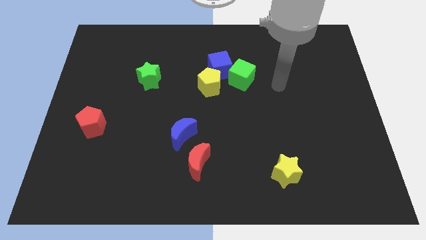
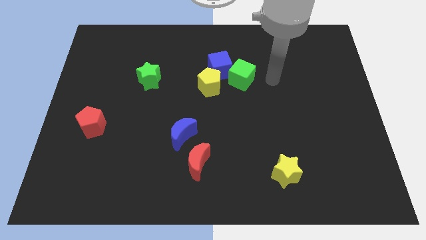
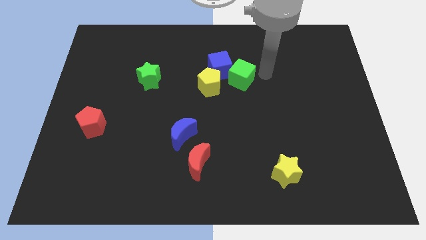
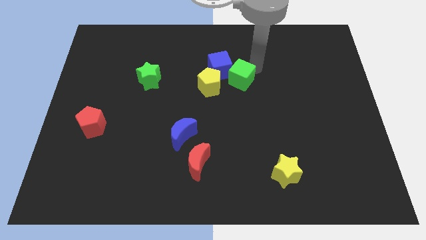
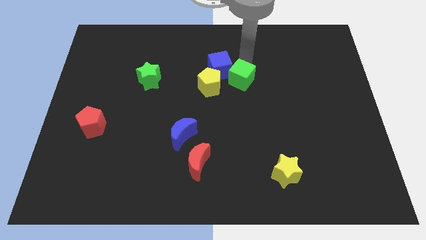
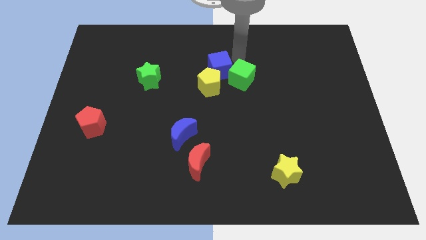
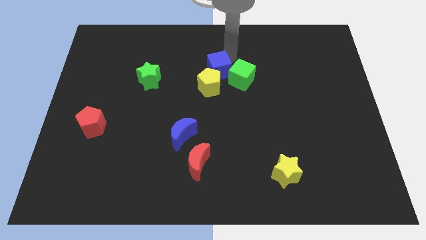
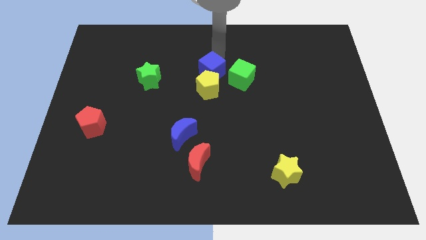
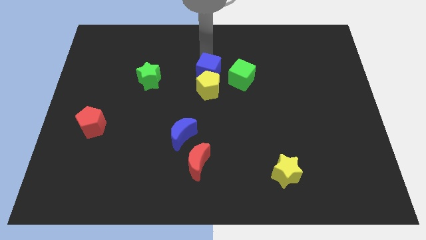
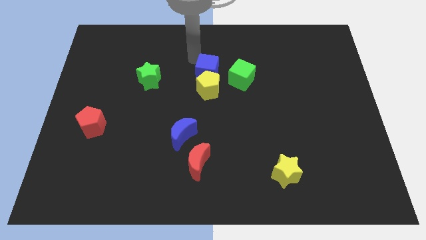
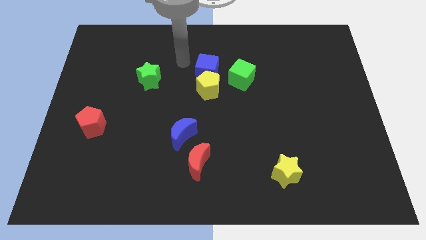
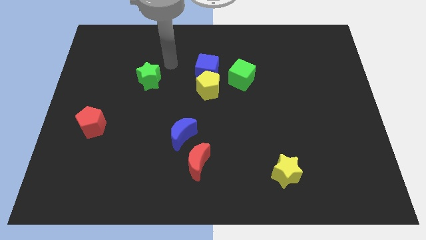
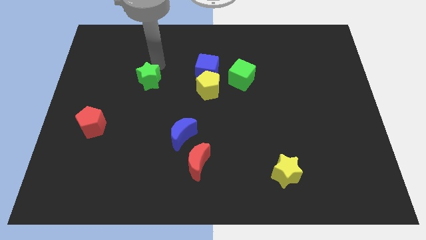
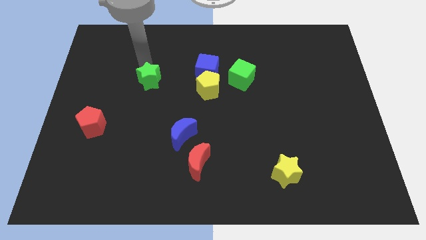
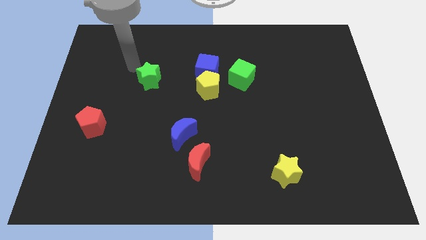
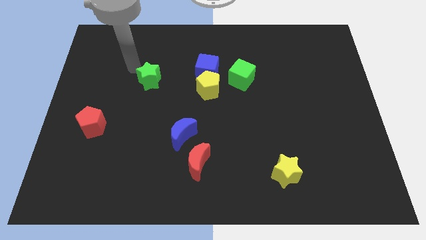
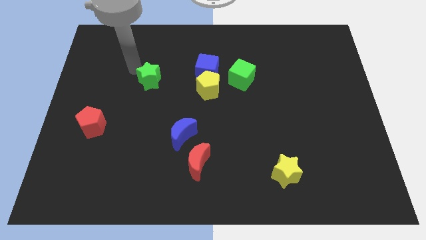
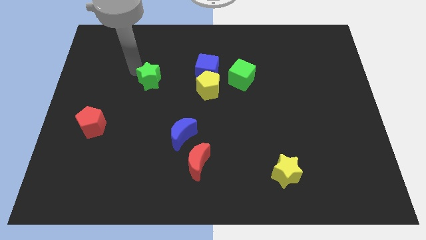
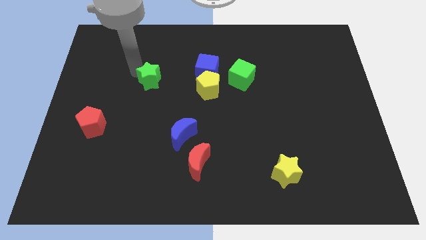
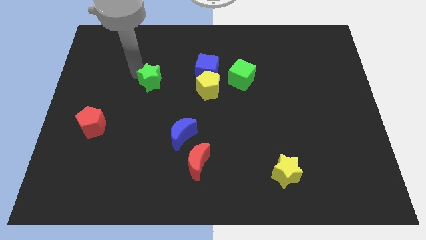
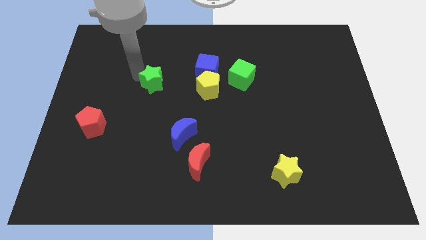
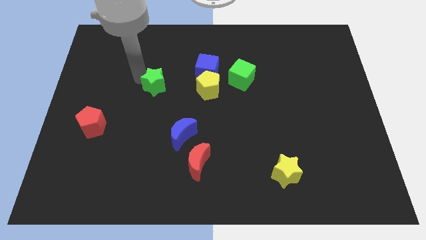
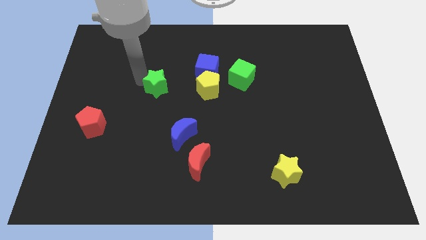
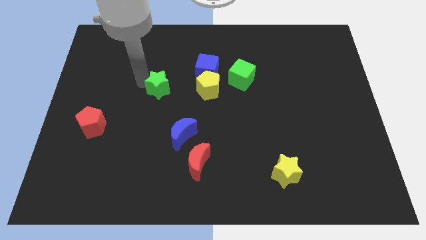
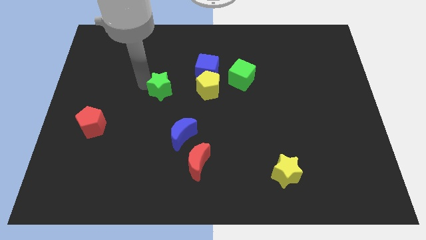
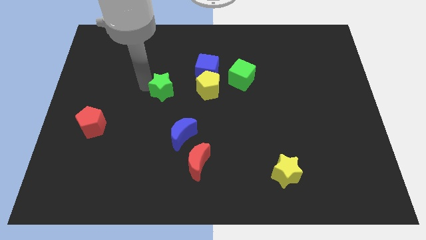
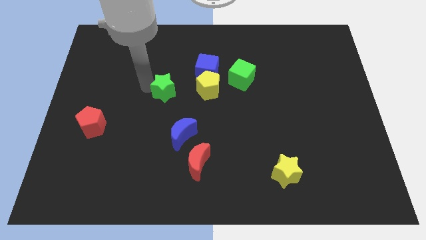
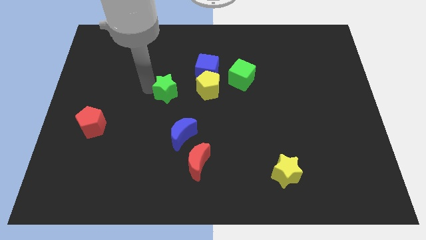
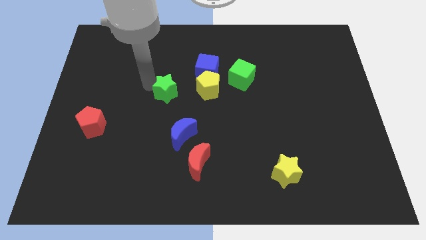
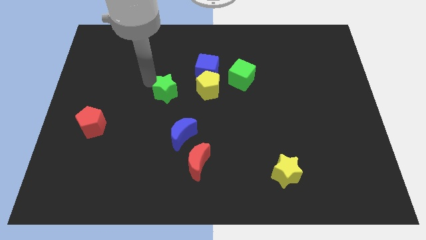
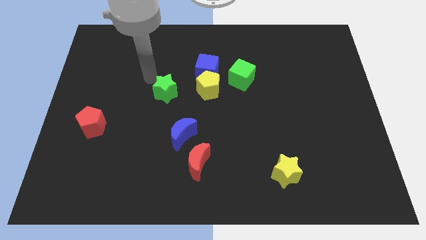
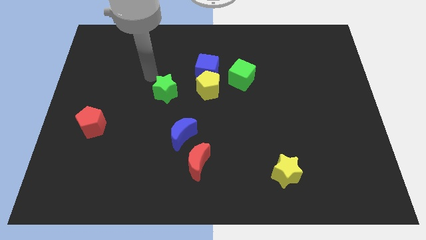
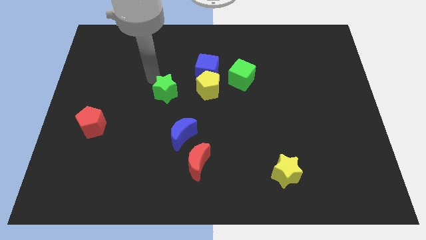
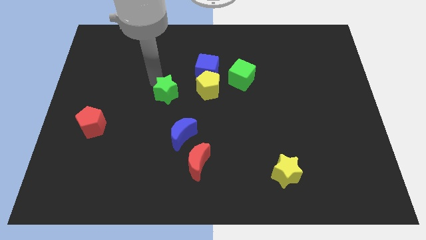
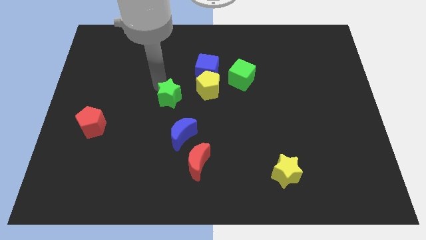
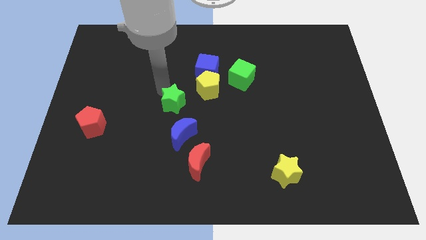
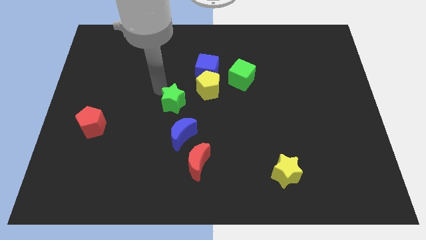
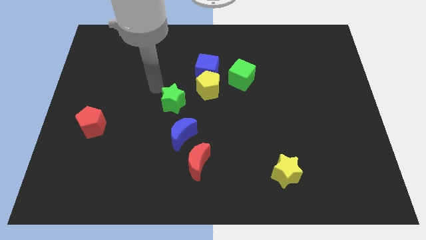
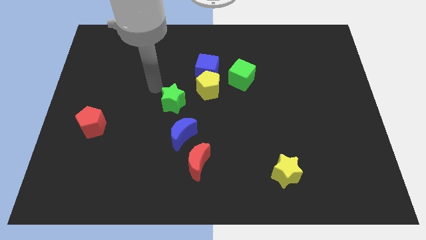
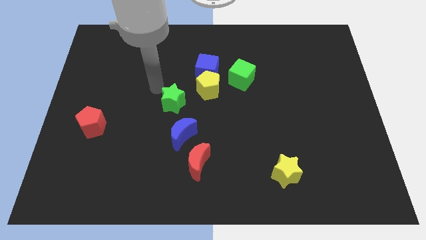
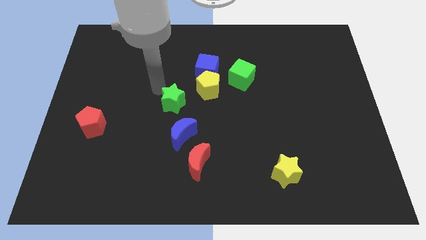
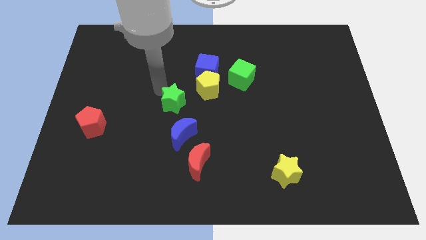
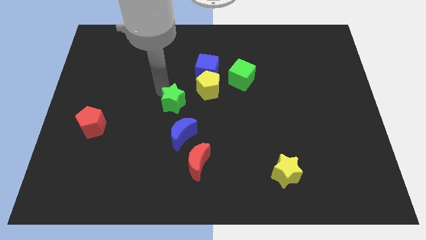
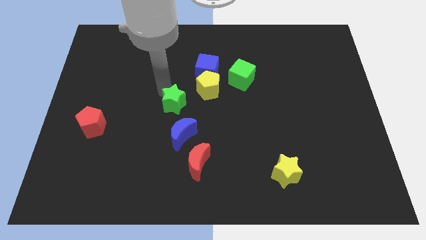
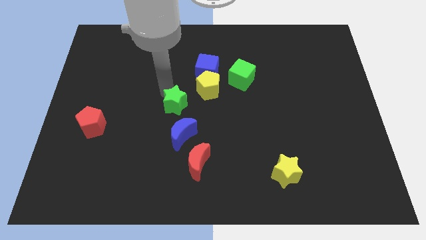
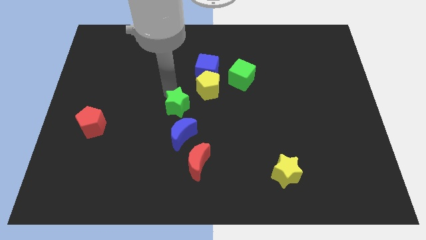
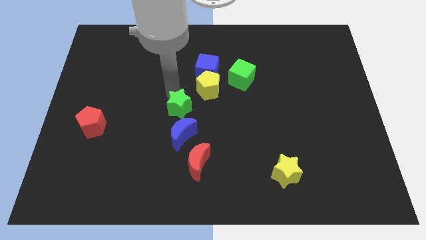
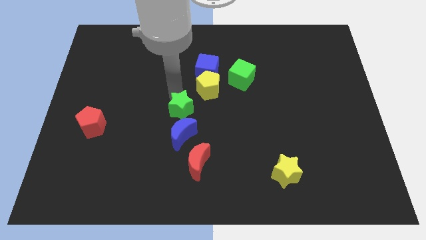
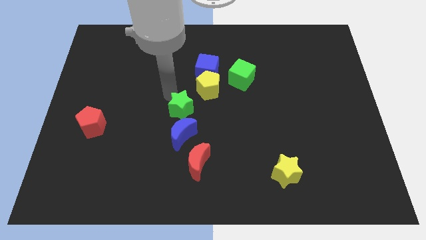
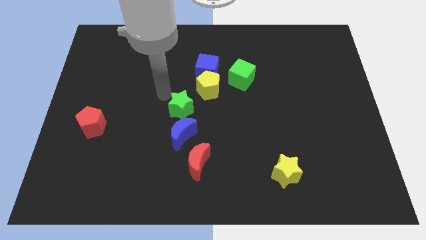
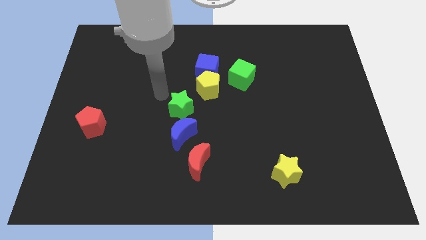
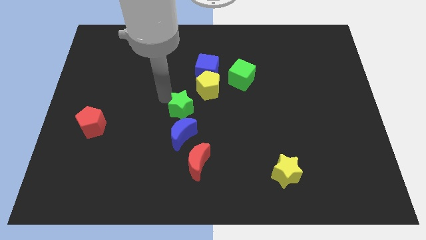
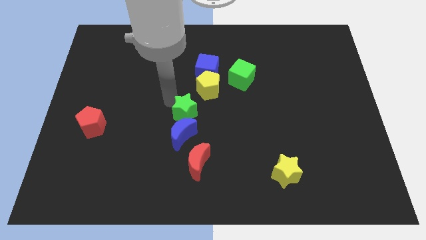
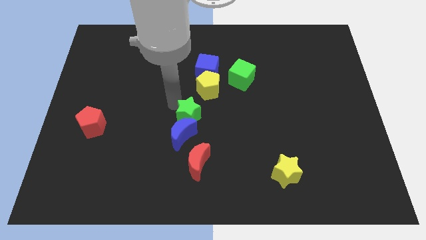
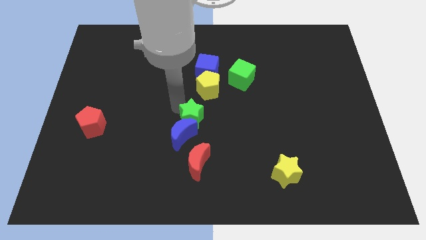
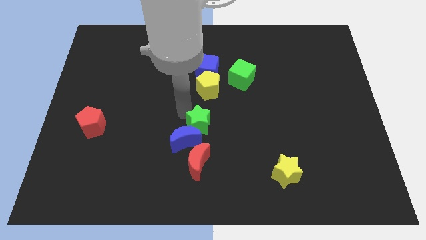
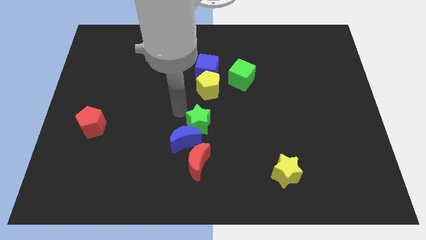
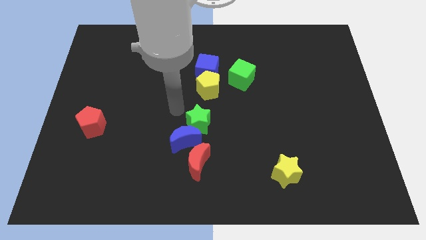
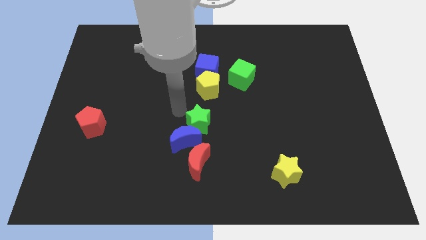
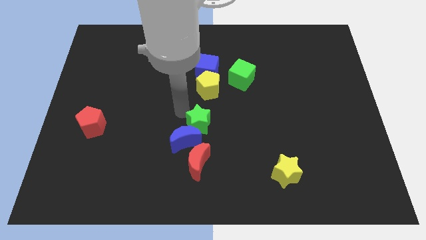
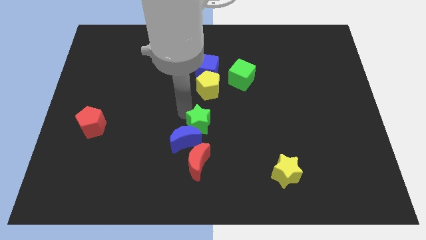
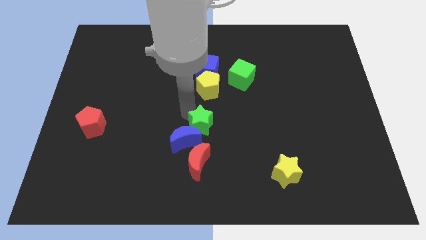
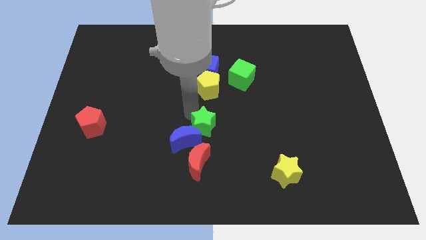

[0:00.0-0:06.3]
move the green star down and right diagonally

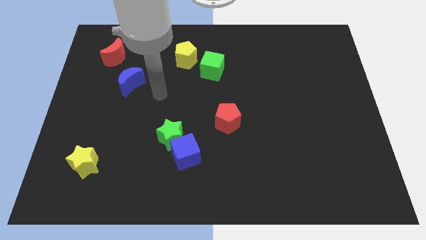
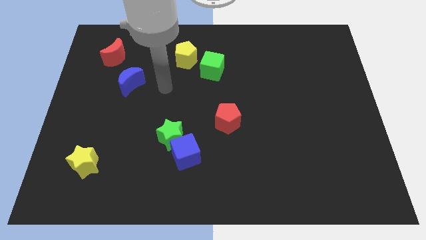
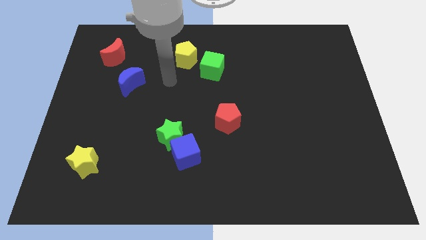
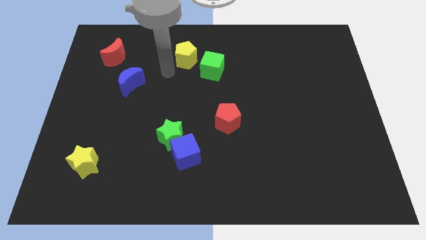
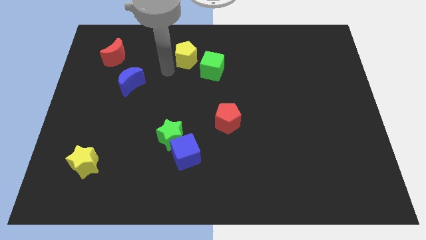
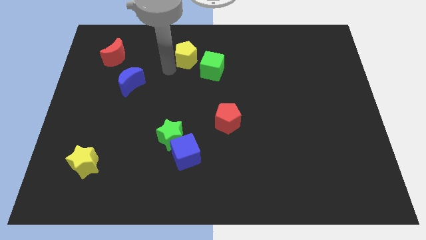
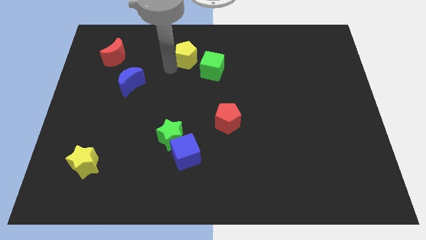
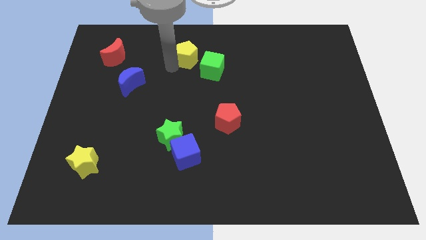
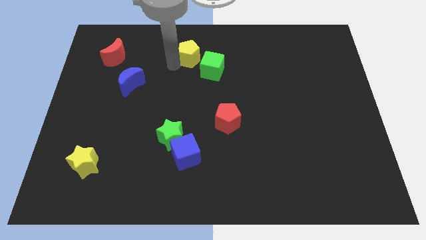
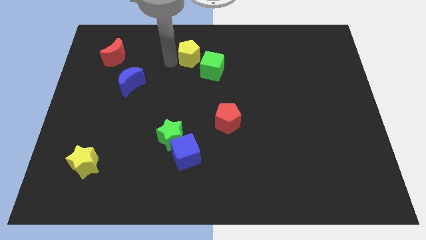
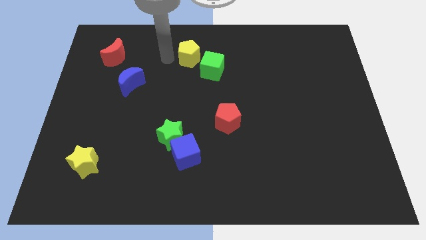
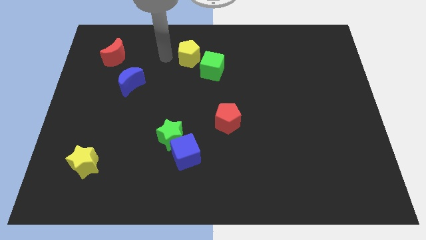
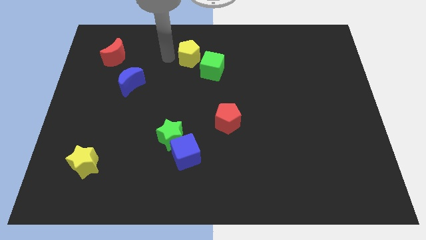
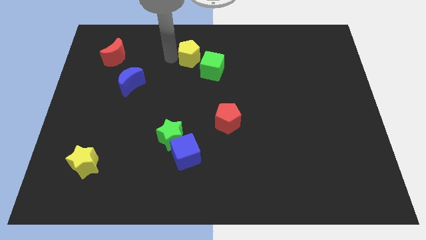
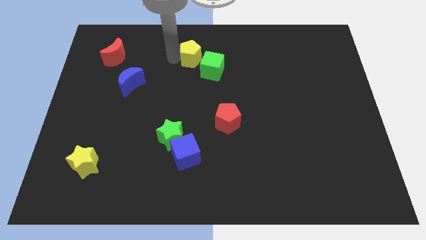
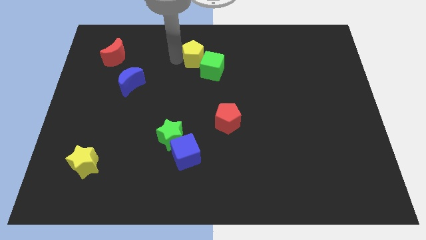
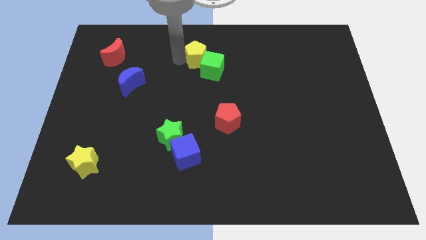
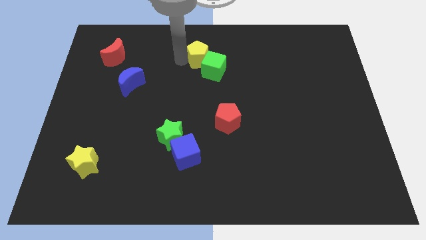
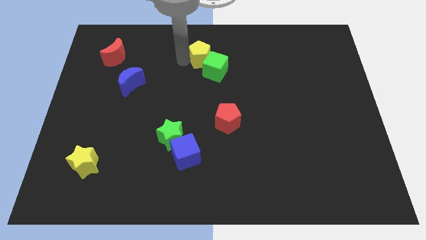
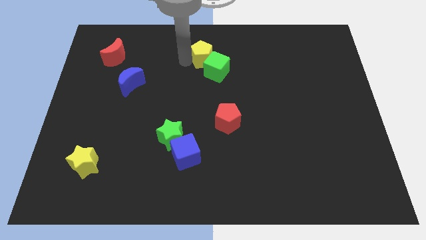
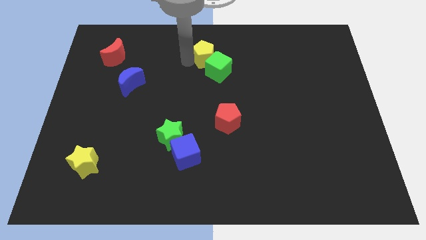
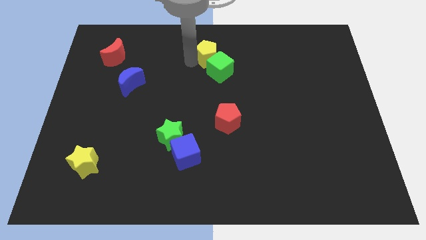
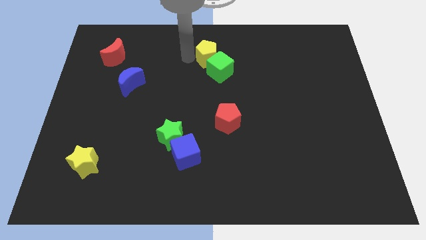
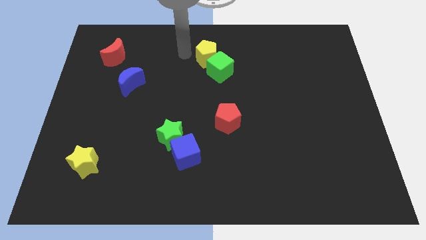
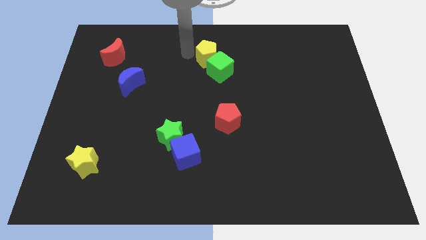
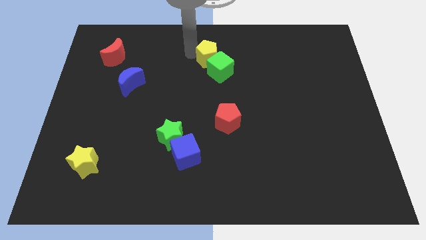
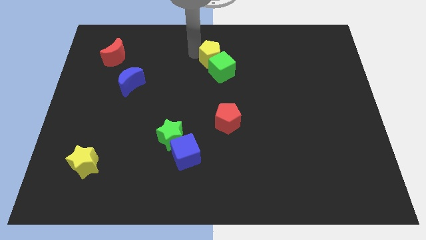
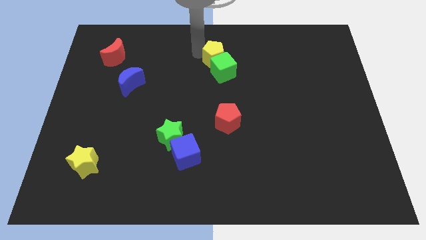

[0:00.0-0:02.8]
move the yellow pentagon right a little
